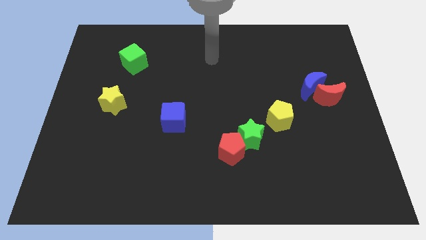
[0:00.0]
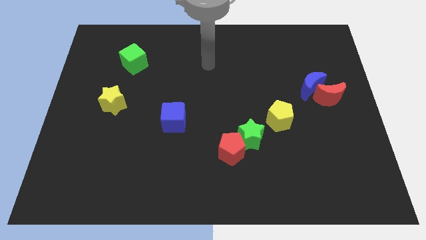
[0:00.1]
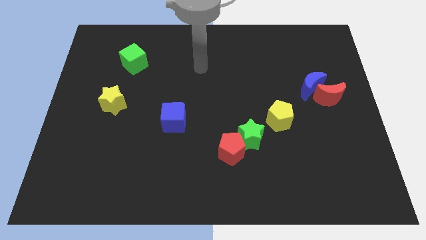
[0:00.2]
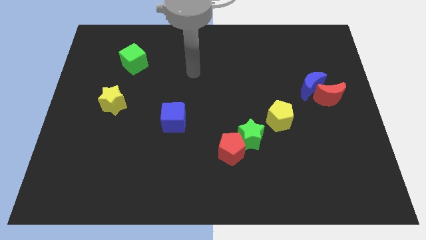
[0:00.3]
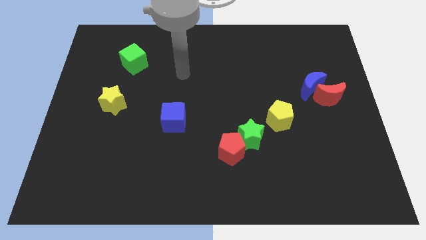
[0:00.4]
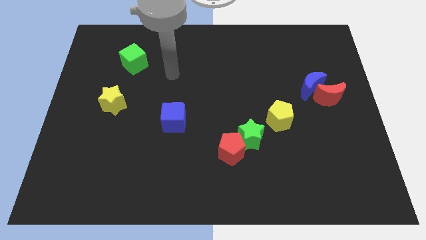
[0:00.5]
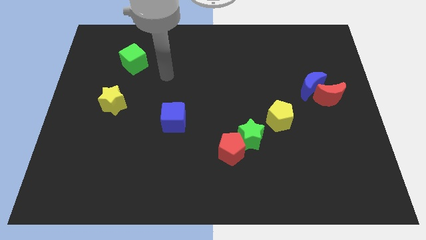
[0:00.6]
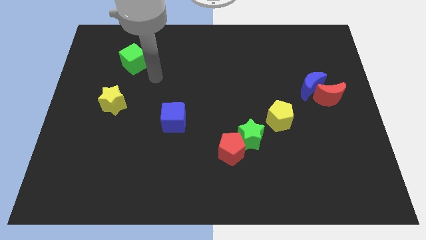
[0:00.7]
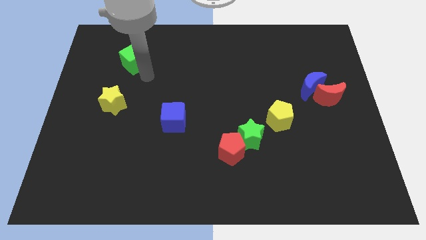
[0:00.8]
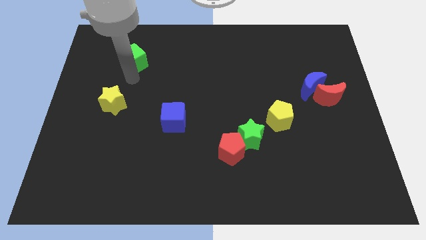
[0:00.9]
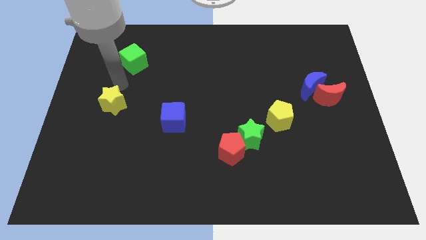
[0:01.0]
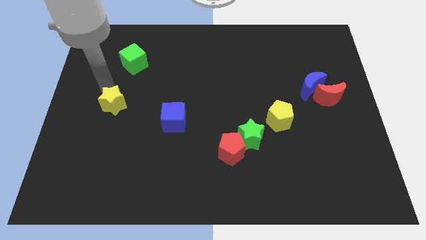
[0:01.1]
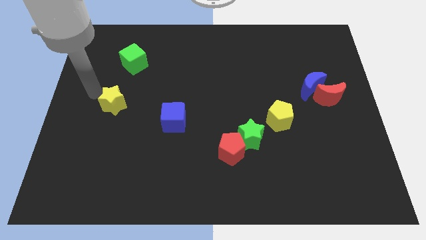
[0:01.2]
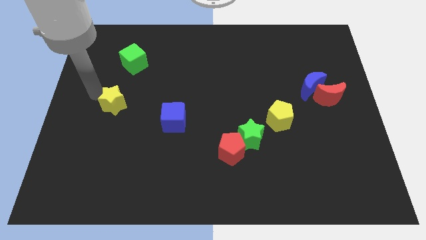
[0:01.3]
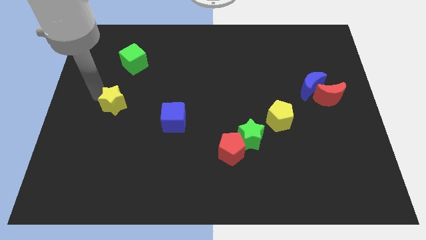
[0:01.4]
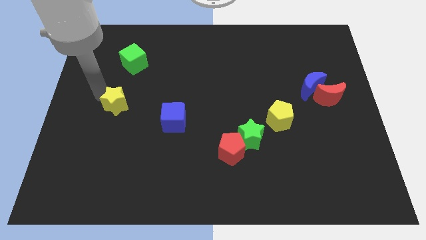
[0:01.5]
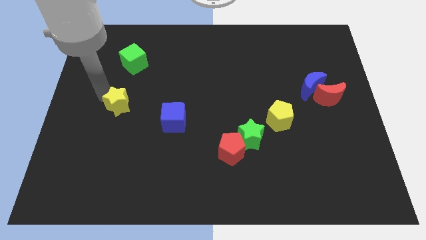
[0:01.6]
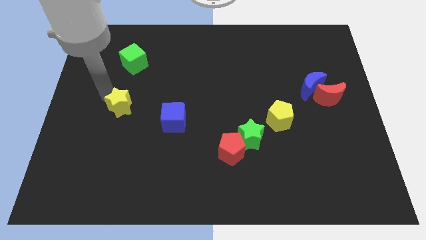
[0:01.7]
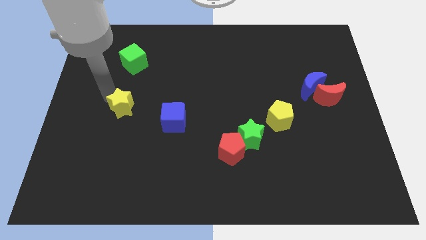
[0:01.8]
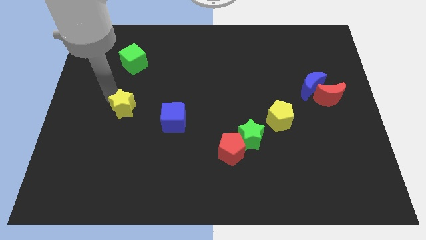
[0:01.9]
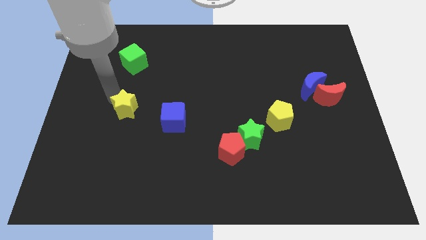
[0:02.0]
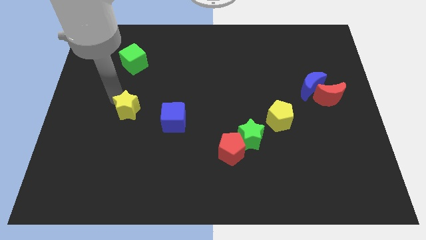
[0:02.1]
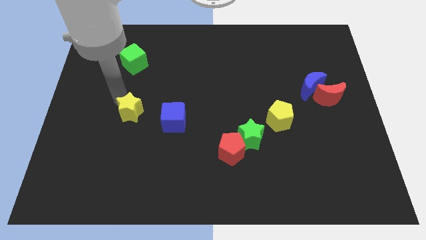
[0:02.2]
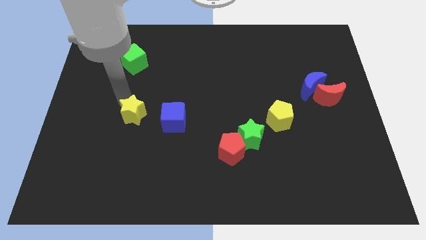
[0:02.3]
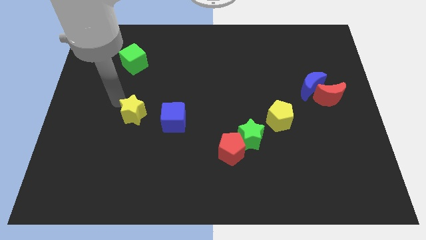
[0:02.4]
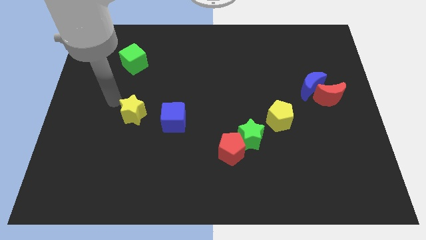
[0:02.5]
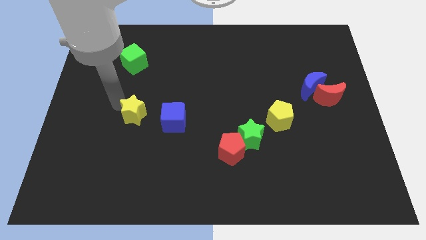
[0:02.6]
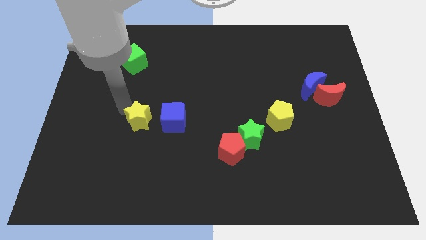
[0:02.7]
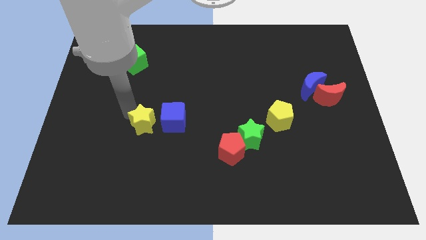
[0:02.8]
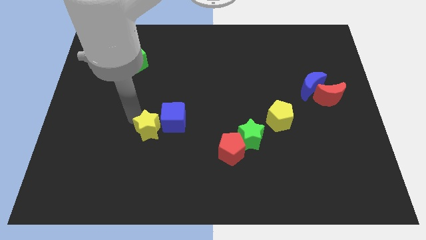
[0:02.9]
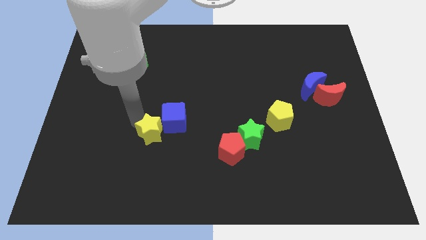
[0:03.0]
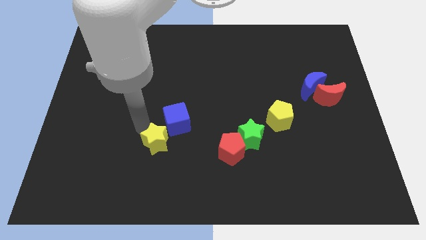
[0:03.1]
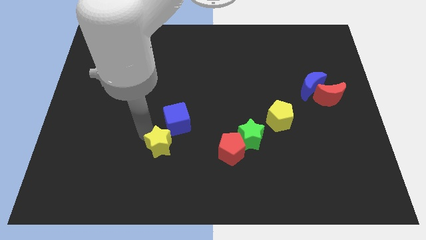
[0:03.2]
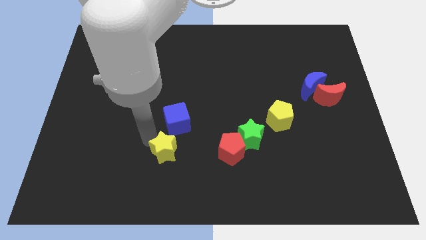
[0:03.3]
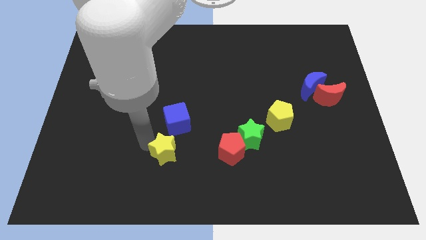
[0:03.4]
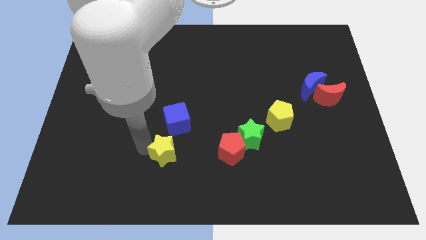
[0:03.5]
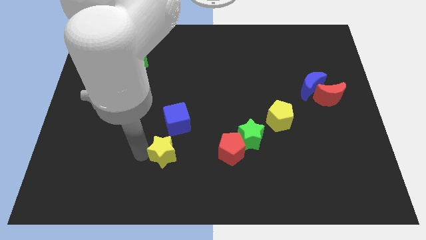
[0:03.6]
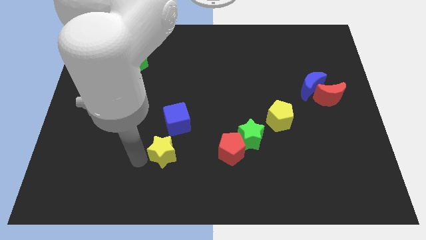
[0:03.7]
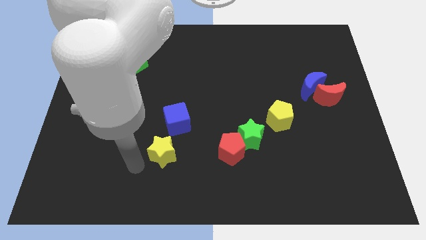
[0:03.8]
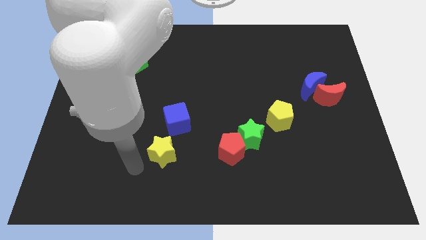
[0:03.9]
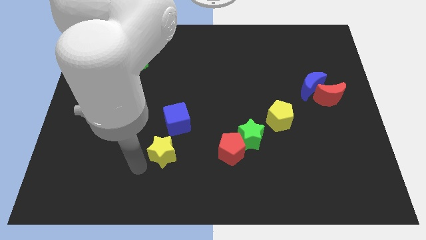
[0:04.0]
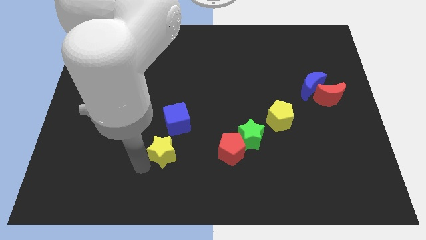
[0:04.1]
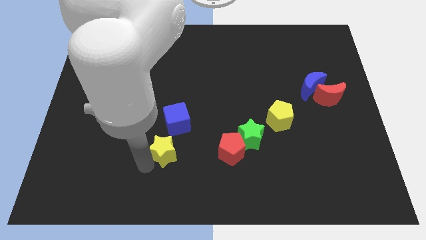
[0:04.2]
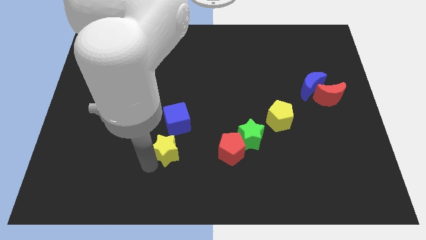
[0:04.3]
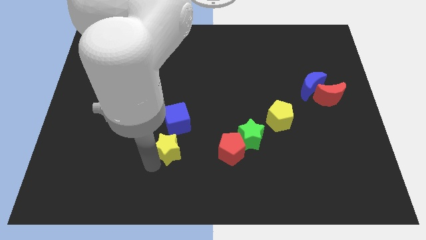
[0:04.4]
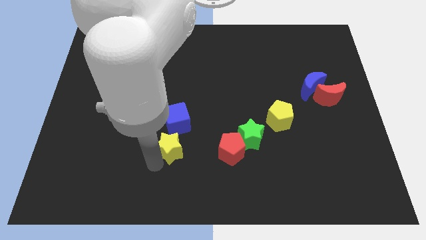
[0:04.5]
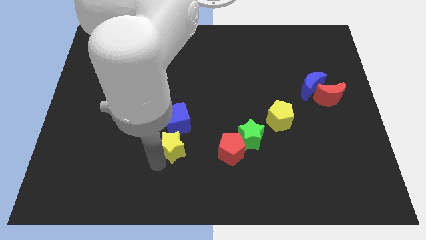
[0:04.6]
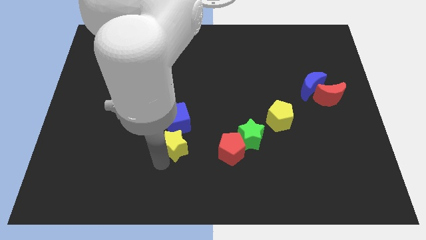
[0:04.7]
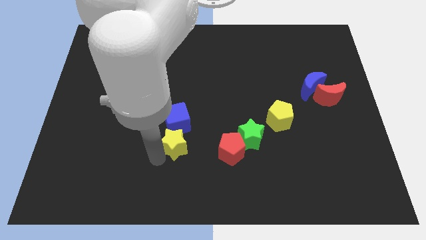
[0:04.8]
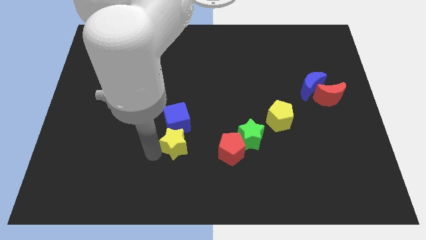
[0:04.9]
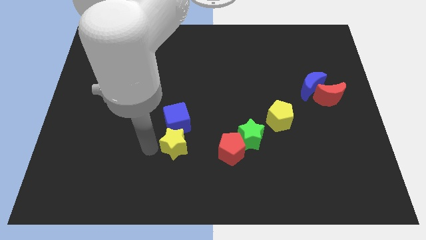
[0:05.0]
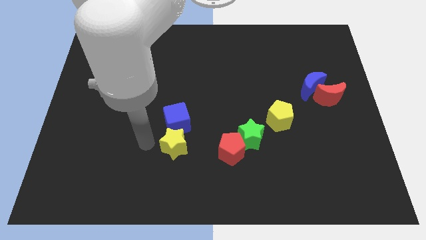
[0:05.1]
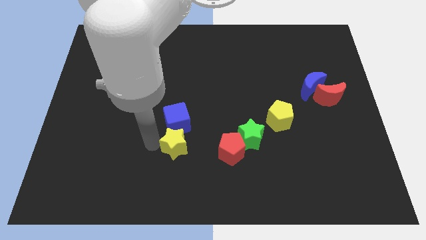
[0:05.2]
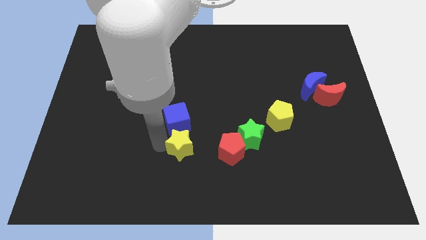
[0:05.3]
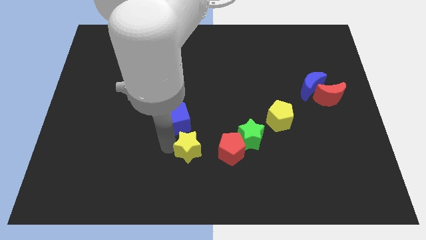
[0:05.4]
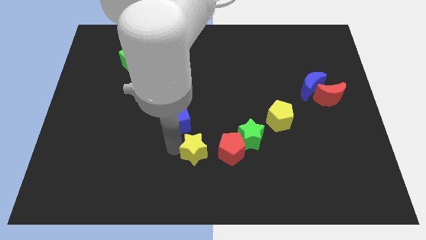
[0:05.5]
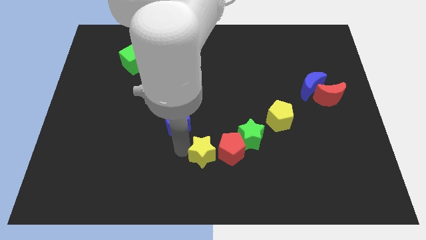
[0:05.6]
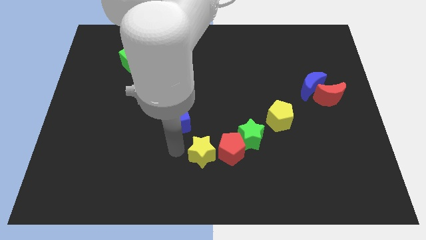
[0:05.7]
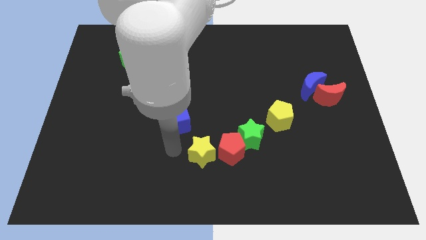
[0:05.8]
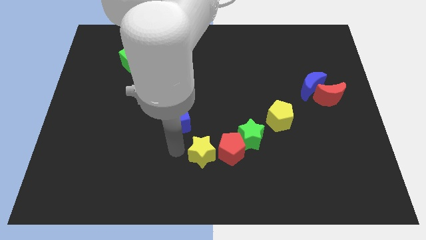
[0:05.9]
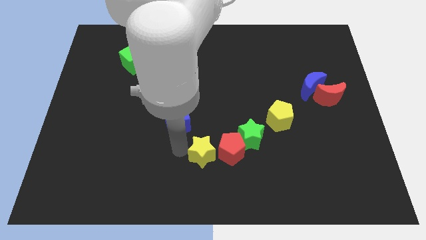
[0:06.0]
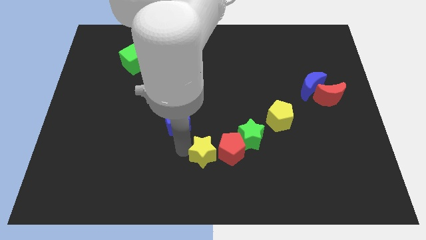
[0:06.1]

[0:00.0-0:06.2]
put the yellow star to the bottom left of the green star

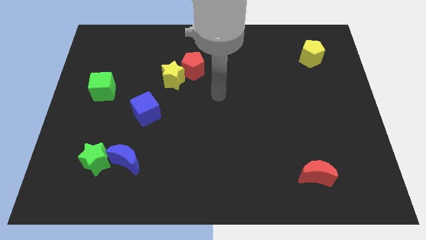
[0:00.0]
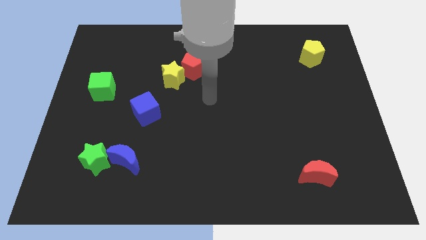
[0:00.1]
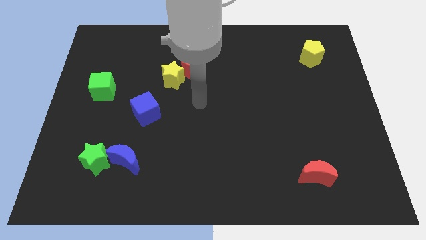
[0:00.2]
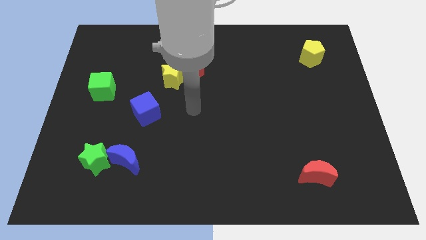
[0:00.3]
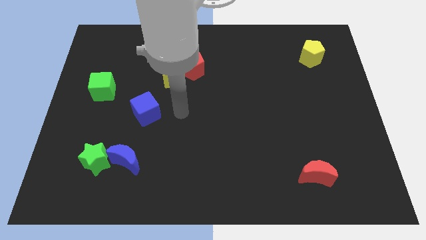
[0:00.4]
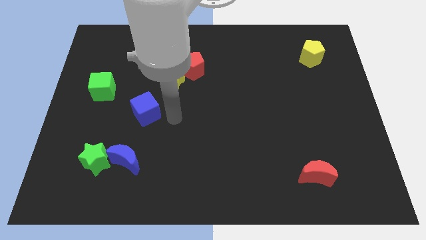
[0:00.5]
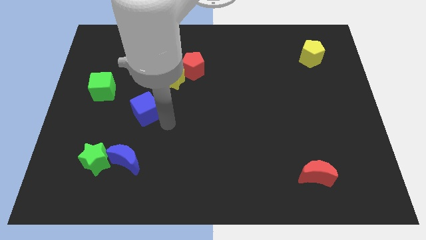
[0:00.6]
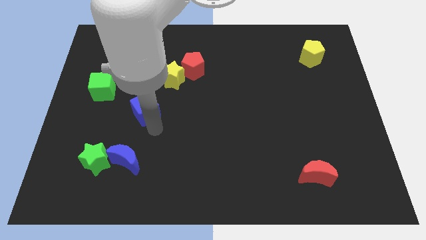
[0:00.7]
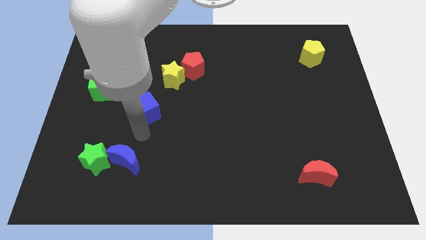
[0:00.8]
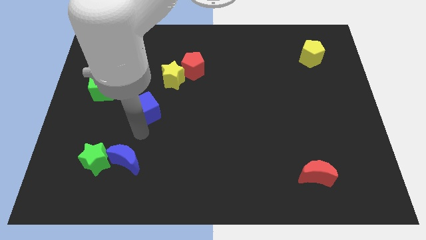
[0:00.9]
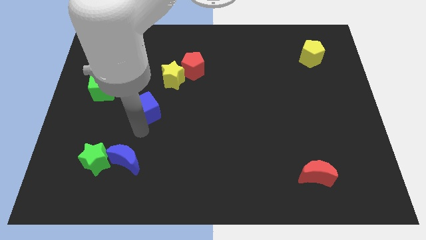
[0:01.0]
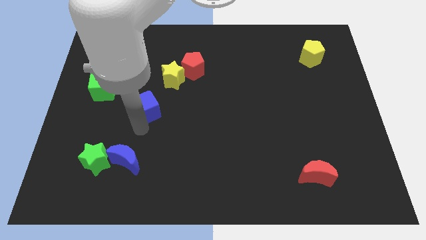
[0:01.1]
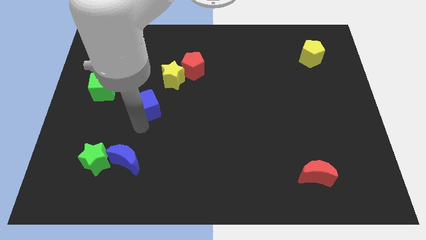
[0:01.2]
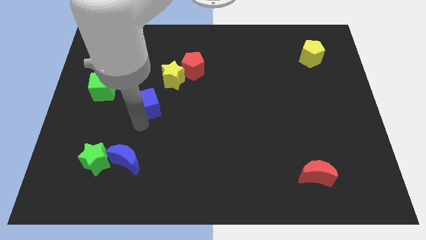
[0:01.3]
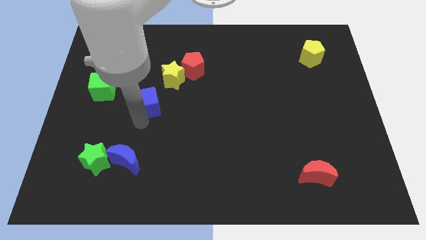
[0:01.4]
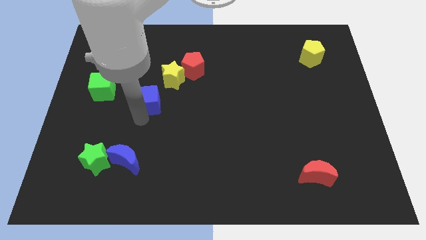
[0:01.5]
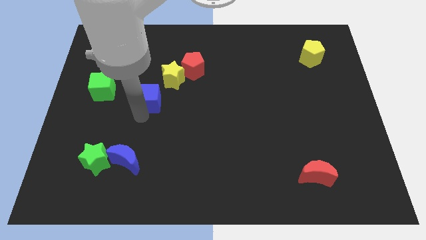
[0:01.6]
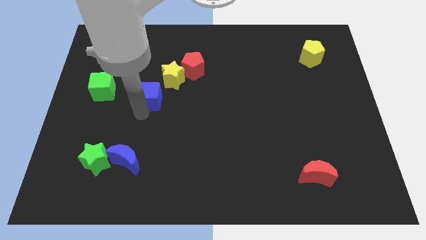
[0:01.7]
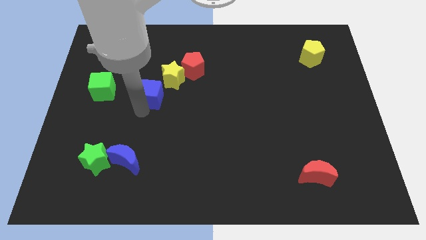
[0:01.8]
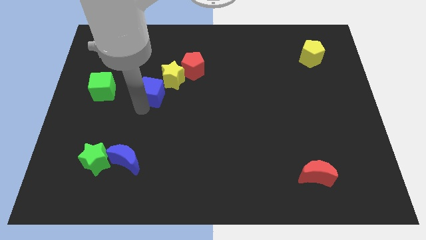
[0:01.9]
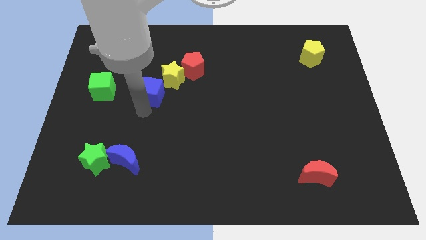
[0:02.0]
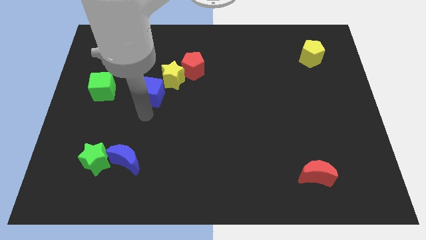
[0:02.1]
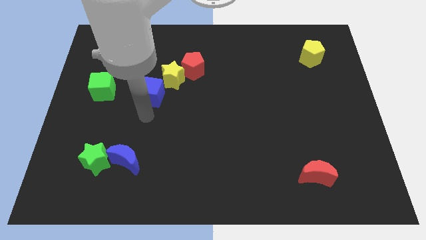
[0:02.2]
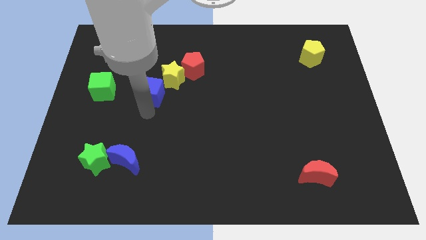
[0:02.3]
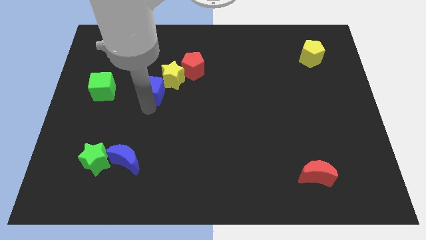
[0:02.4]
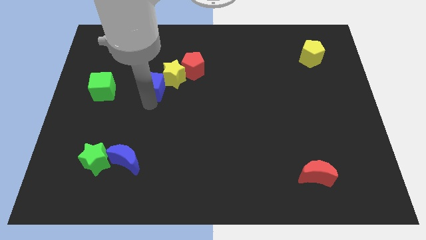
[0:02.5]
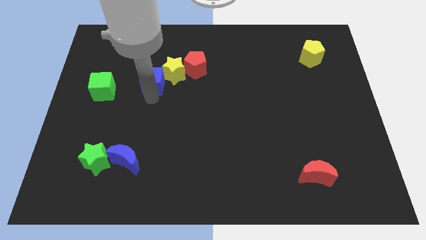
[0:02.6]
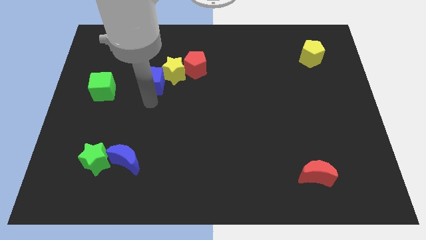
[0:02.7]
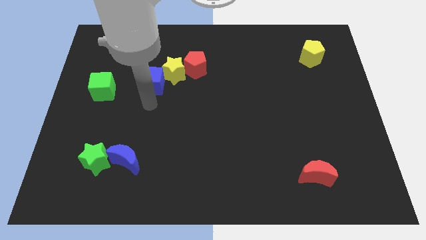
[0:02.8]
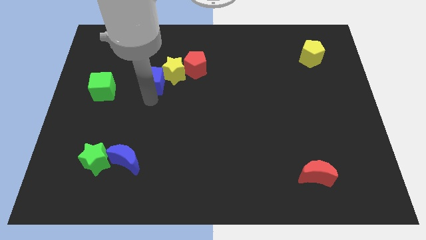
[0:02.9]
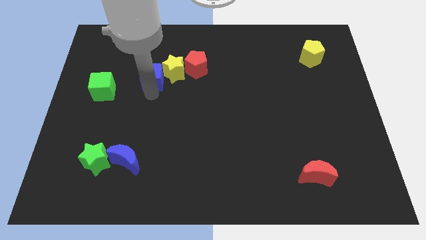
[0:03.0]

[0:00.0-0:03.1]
slide the blue cube to the left of the red pentagon
